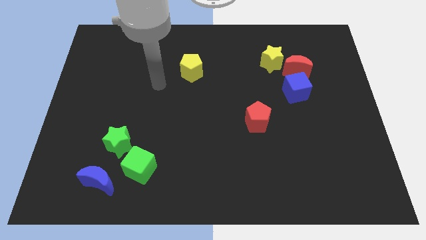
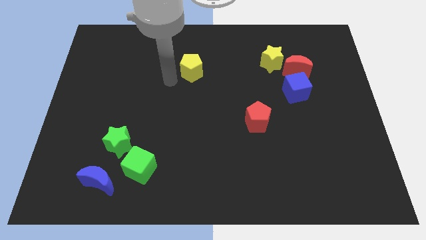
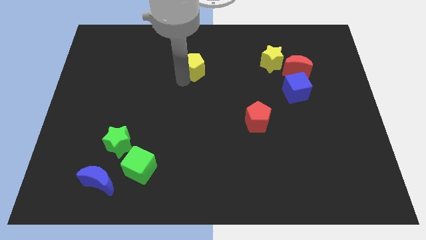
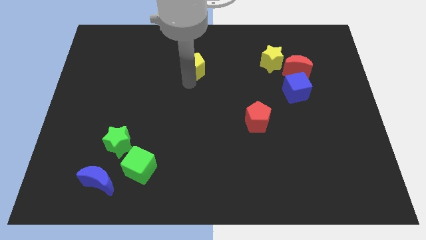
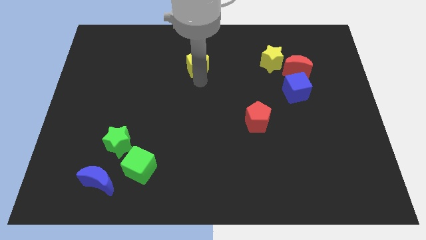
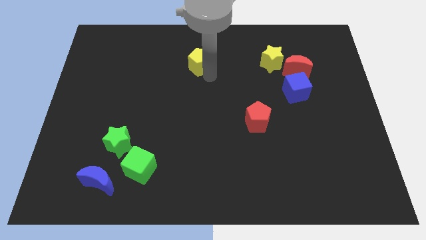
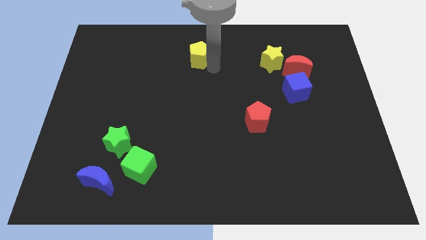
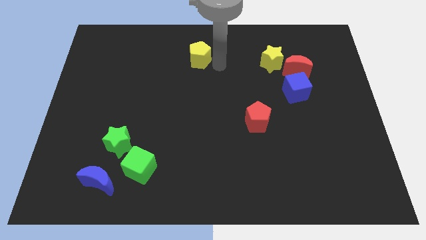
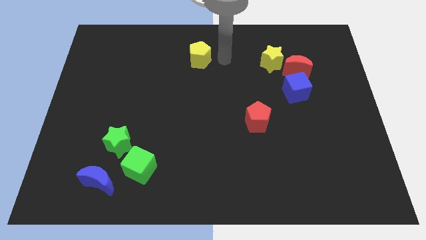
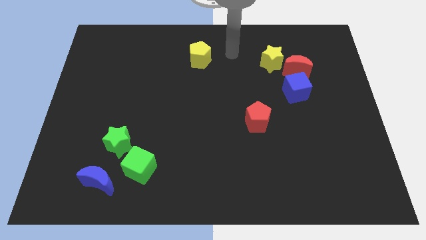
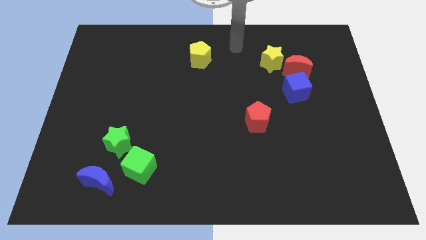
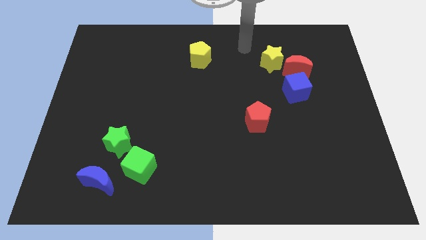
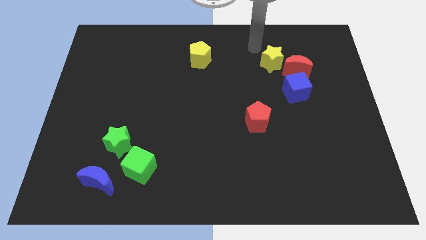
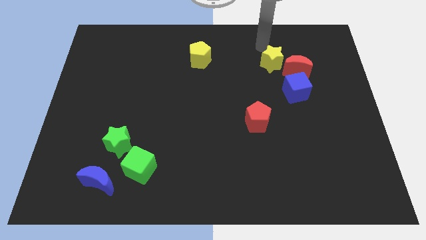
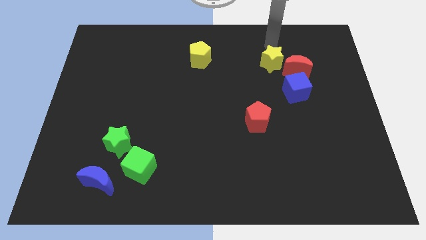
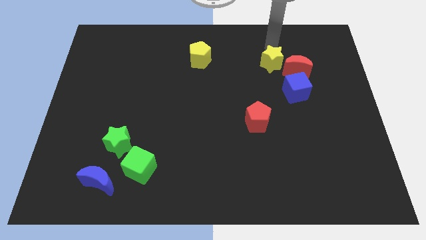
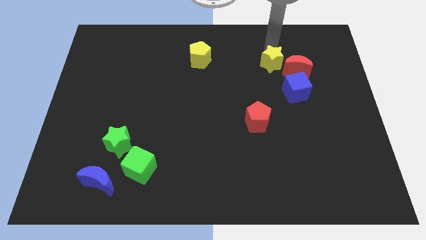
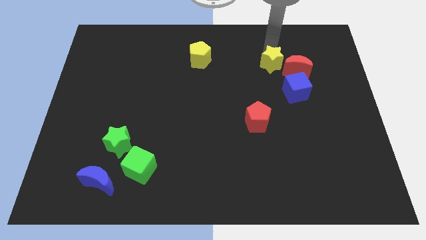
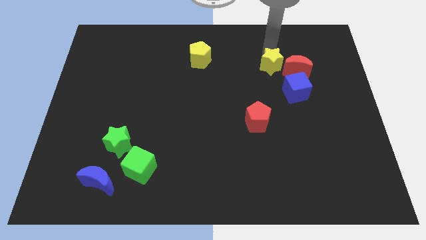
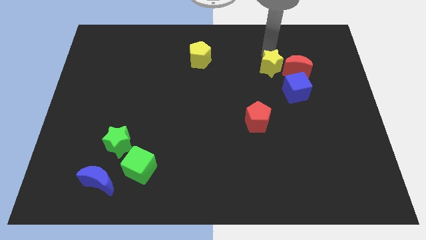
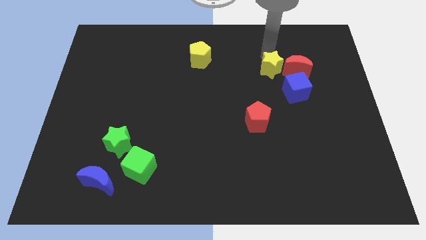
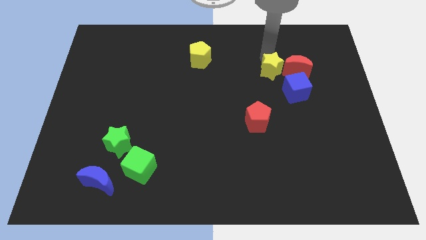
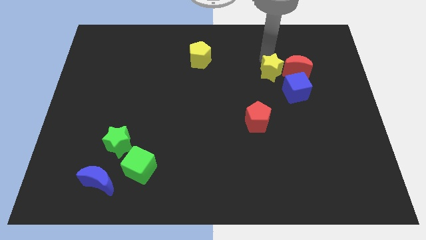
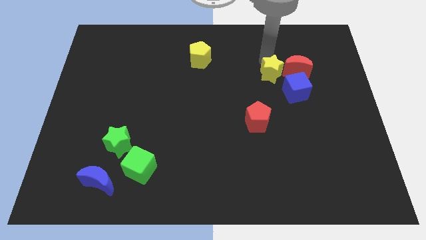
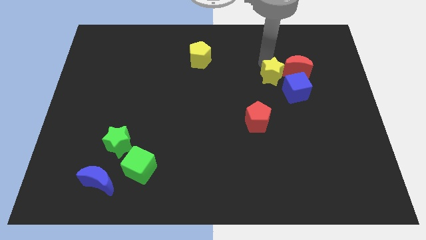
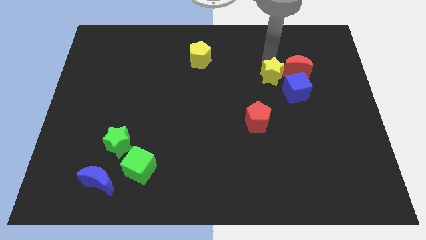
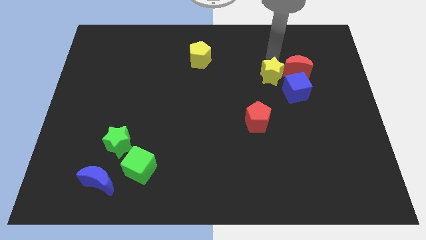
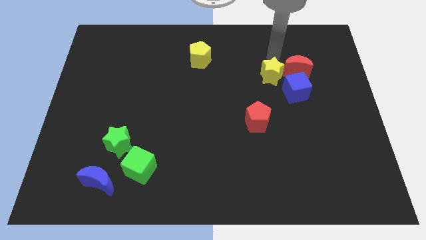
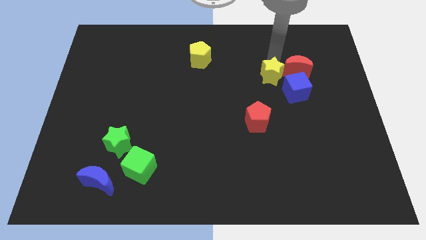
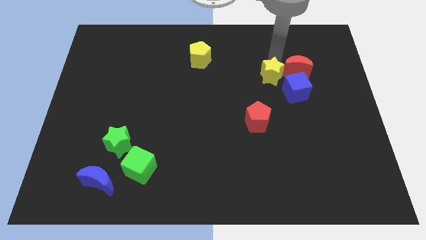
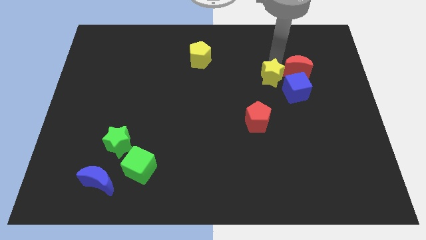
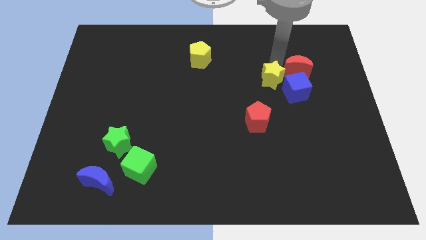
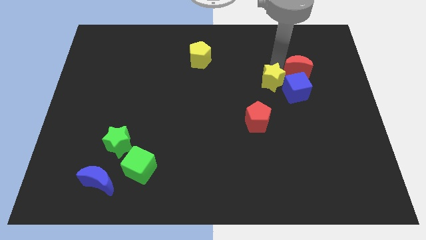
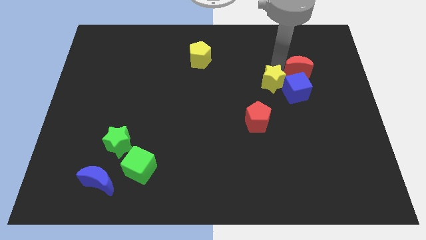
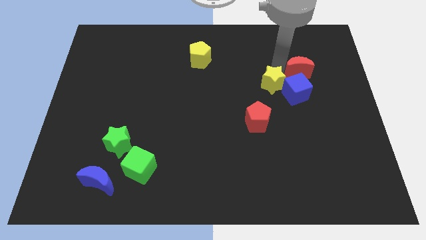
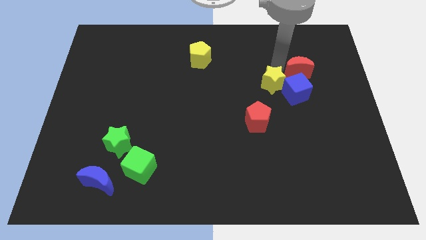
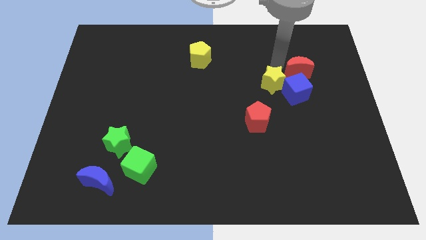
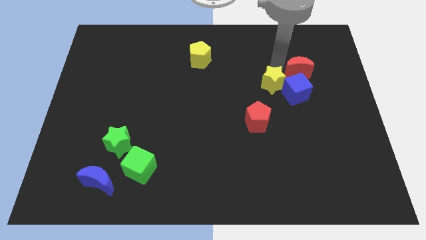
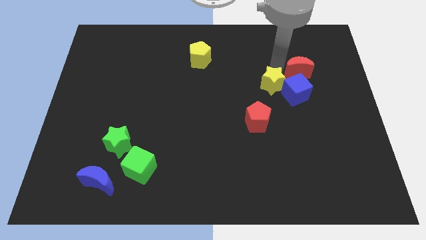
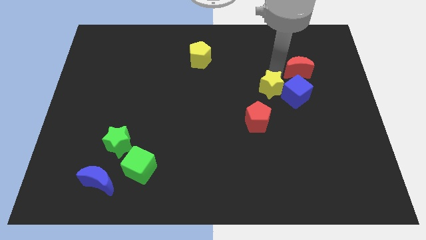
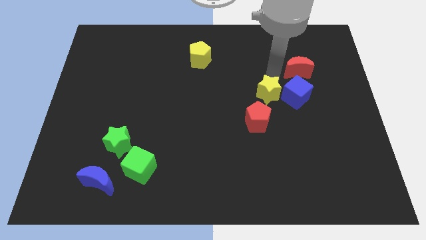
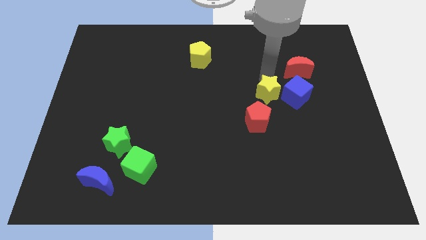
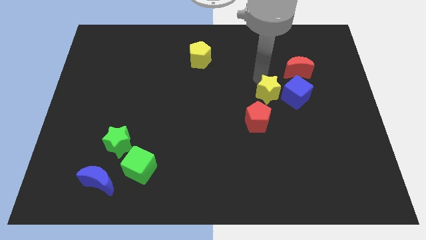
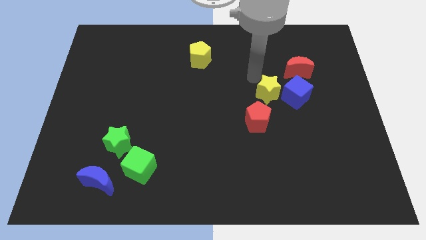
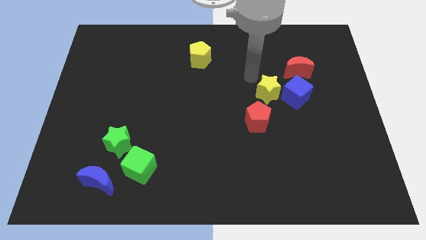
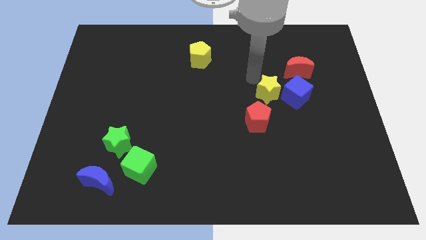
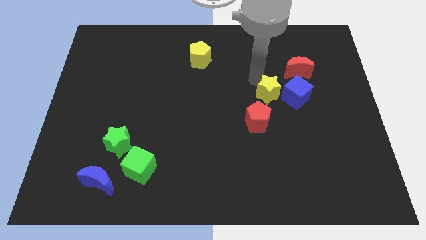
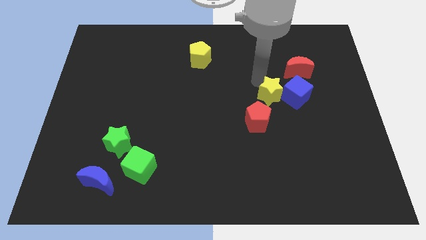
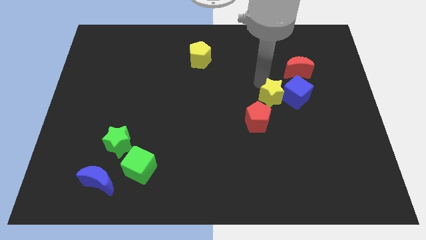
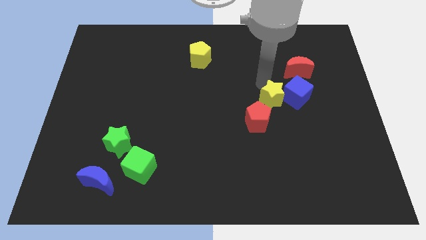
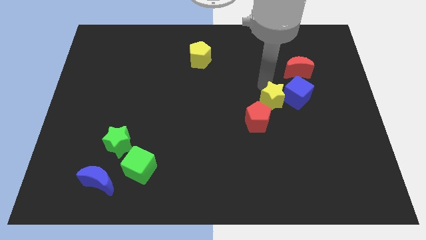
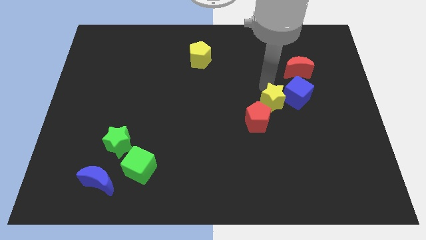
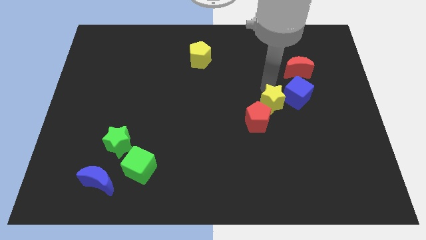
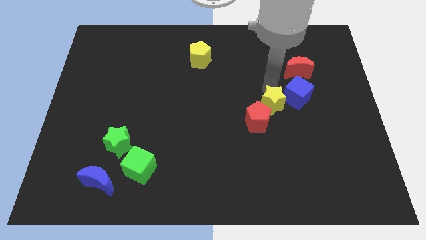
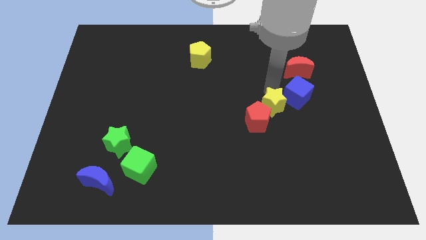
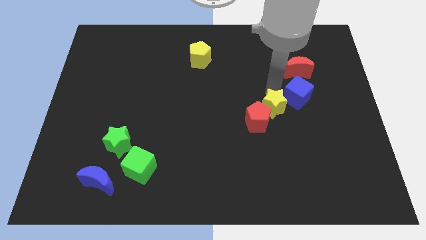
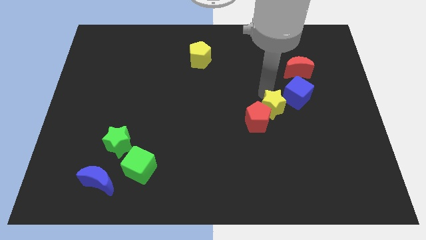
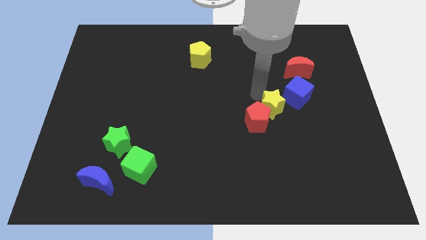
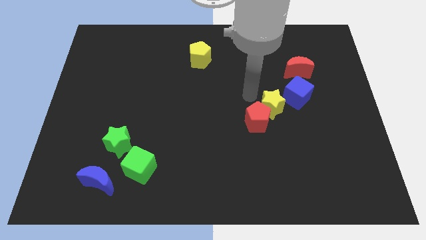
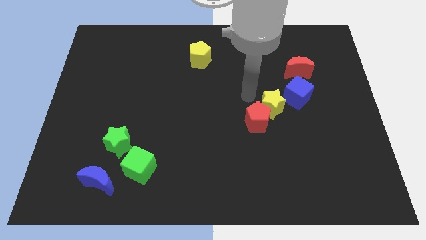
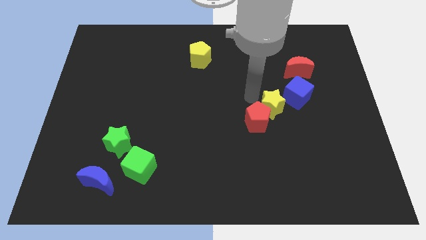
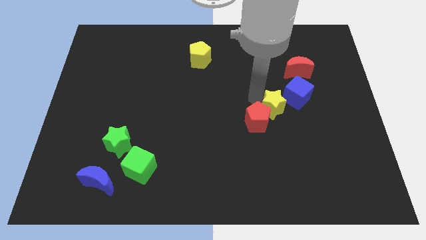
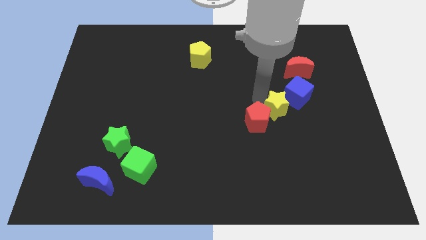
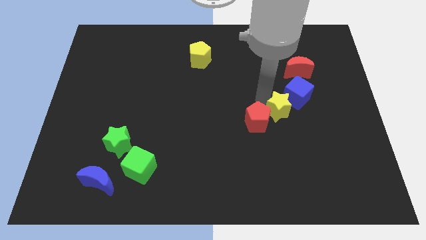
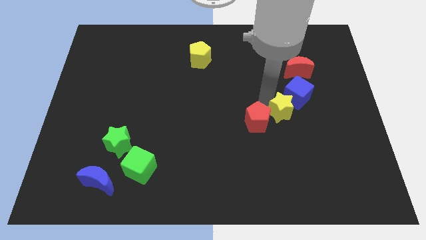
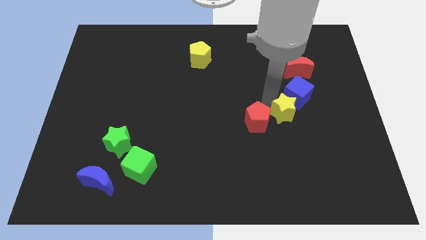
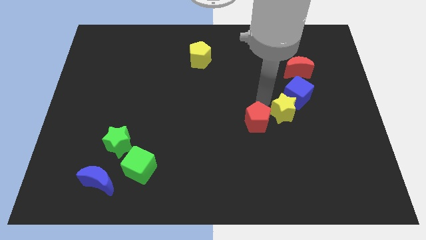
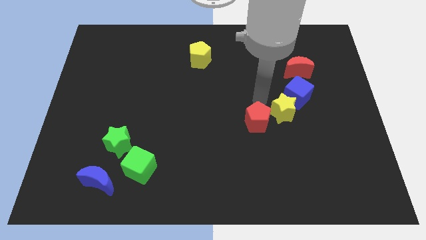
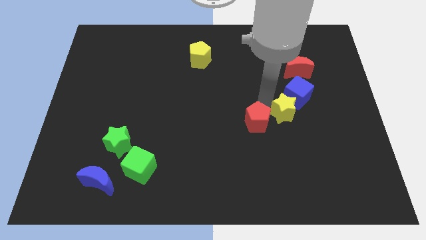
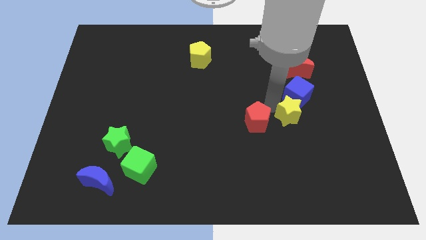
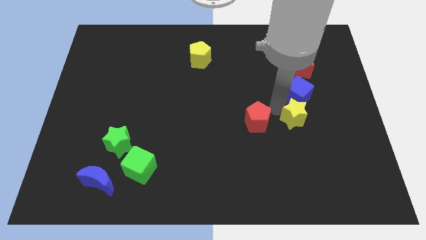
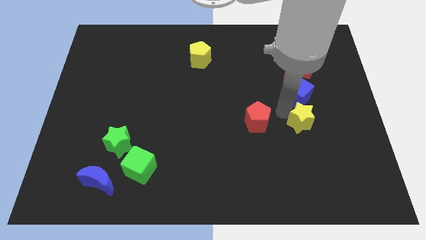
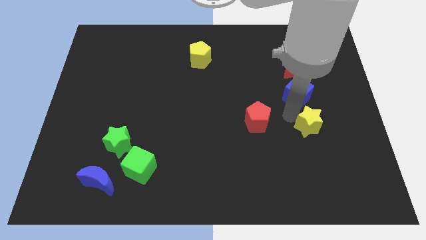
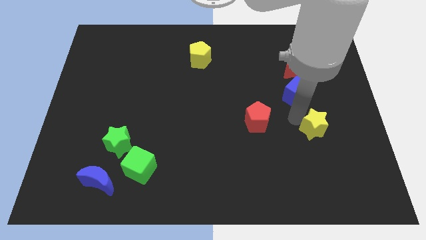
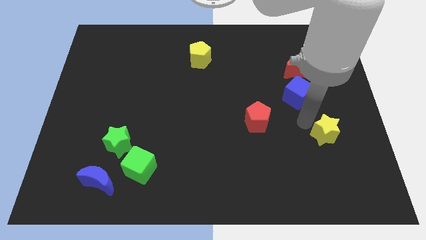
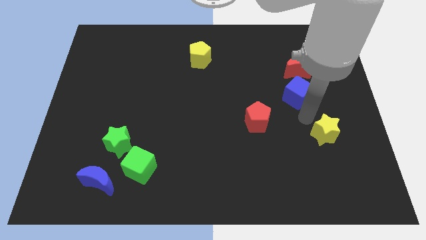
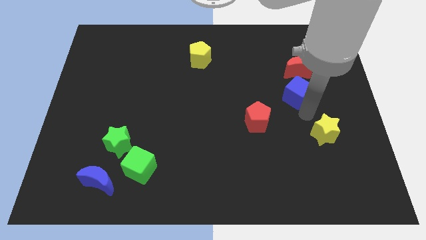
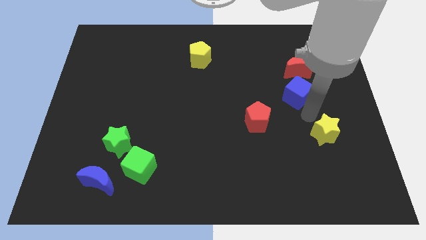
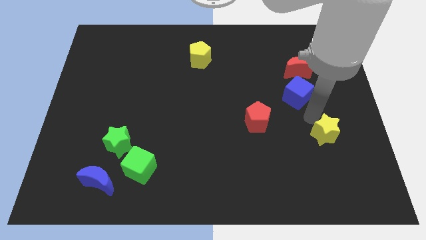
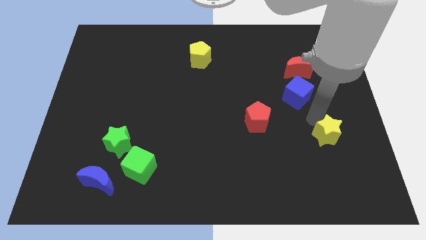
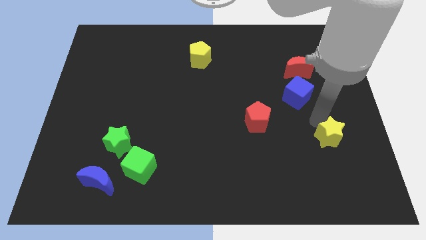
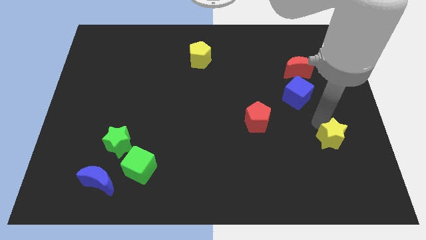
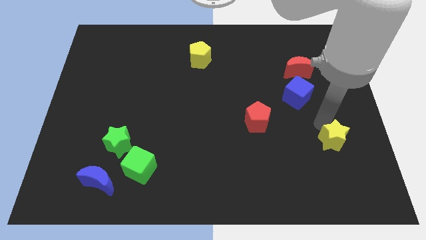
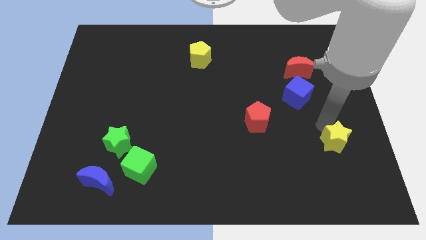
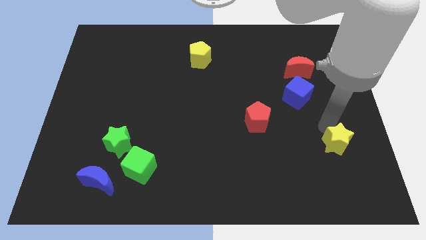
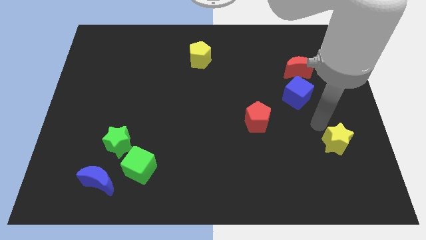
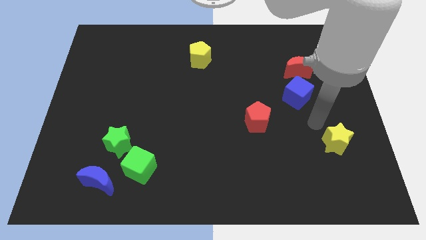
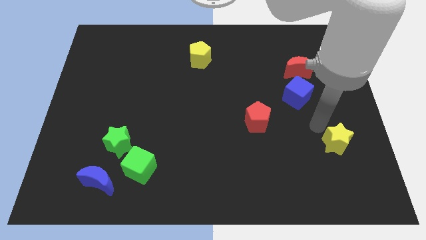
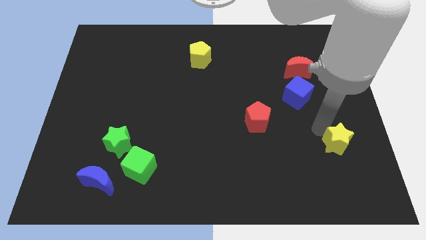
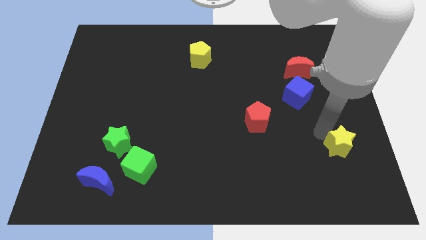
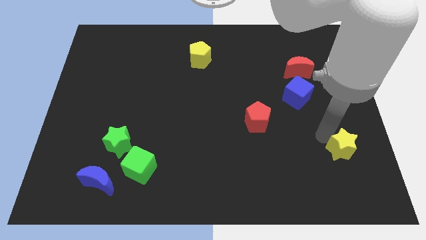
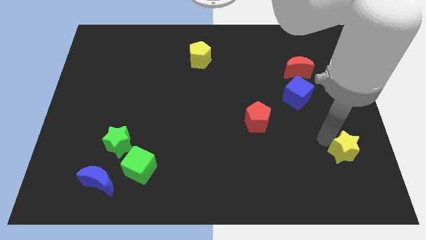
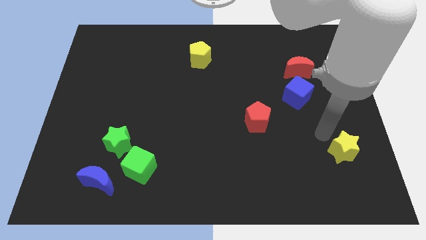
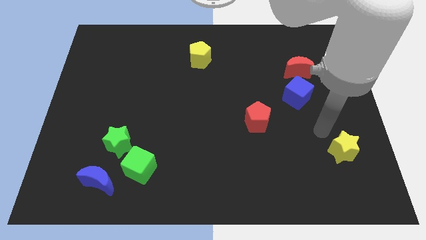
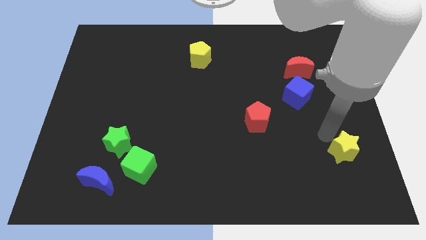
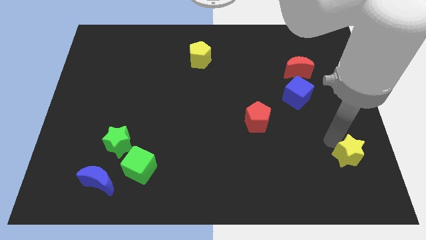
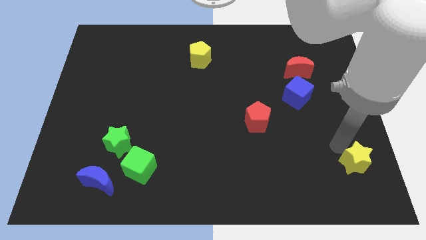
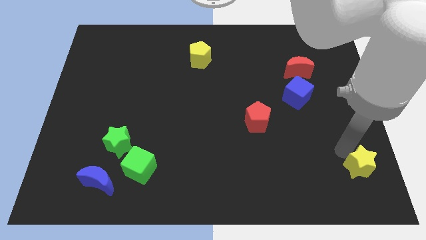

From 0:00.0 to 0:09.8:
put the yellow star to the bottom right
